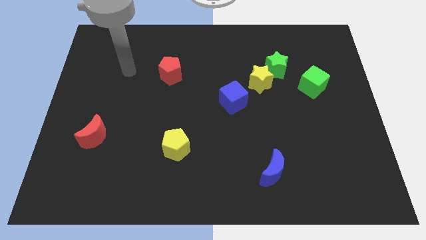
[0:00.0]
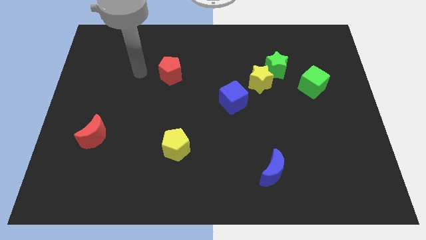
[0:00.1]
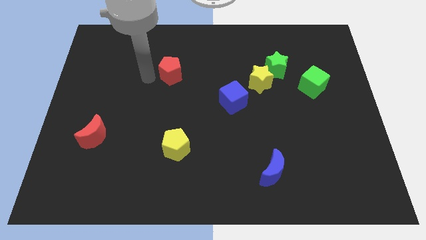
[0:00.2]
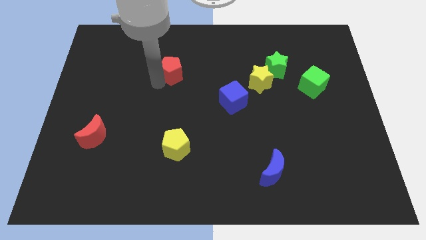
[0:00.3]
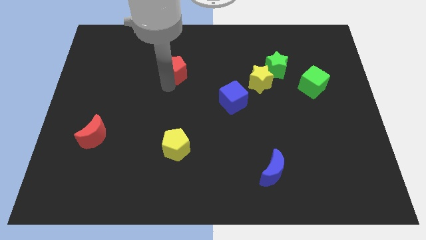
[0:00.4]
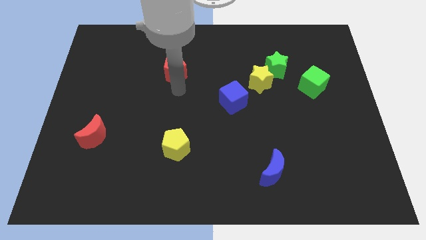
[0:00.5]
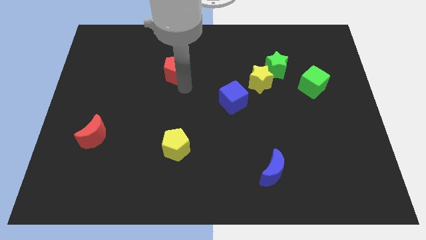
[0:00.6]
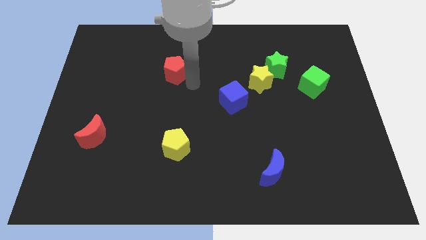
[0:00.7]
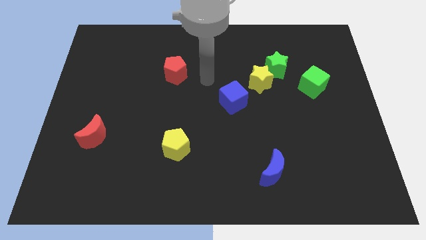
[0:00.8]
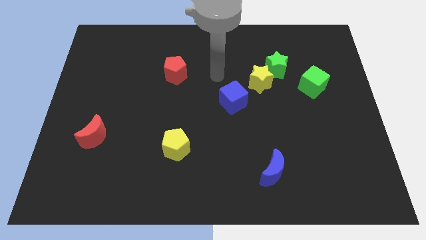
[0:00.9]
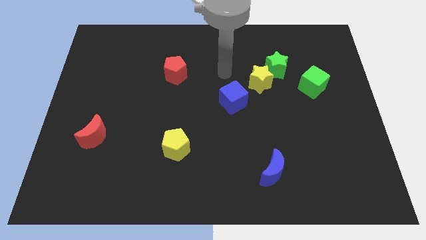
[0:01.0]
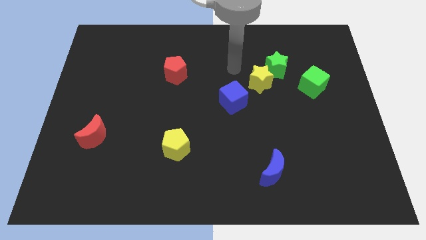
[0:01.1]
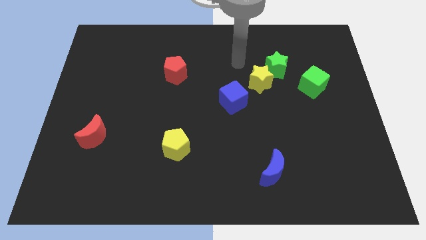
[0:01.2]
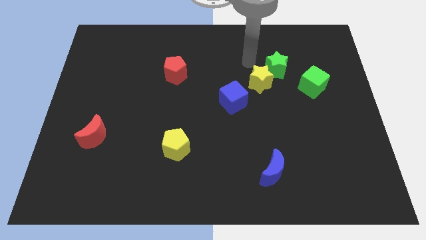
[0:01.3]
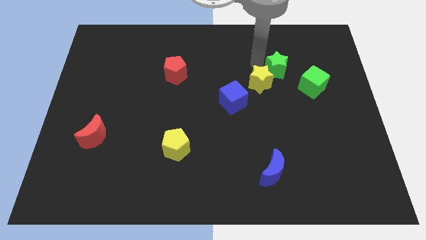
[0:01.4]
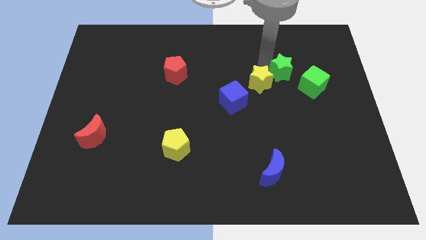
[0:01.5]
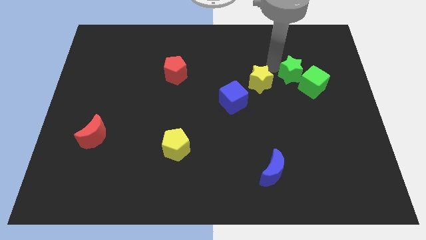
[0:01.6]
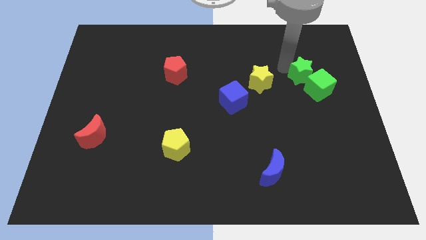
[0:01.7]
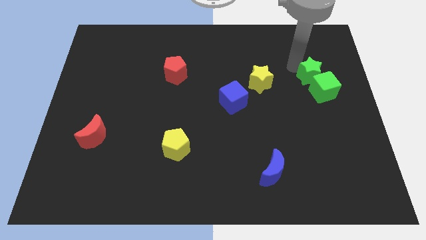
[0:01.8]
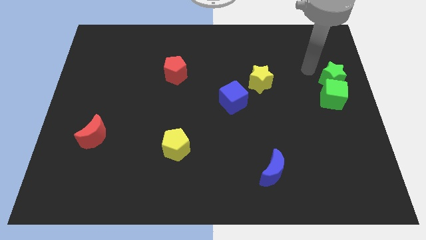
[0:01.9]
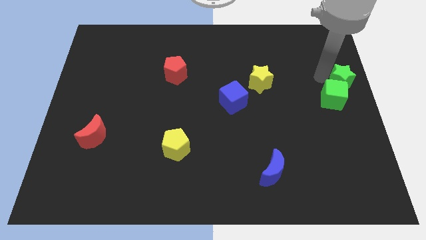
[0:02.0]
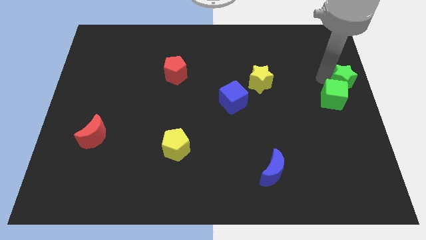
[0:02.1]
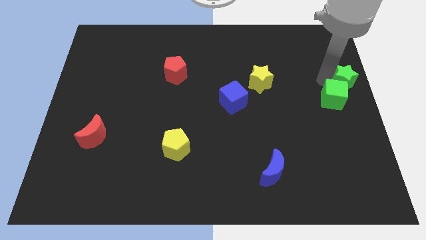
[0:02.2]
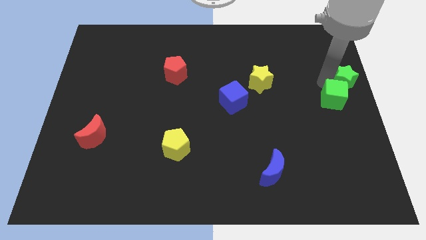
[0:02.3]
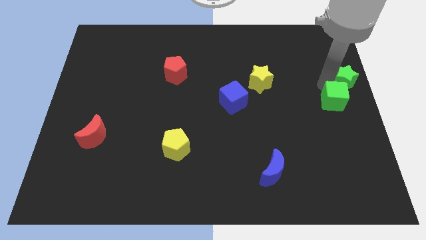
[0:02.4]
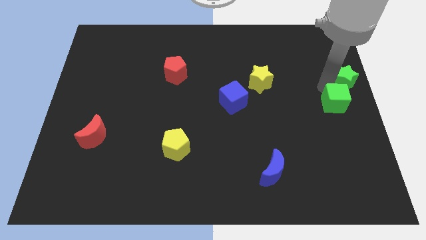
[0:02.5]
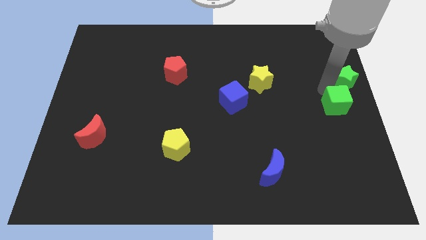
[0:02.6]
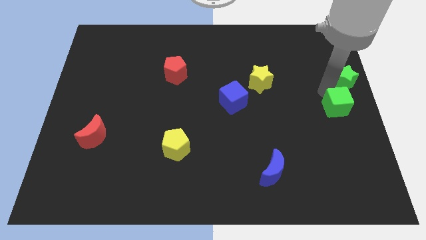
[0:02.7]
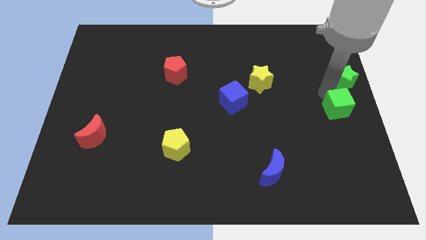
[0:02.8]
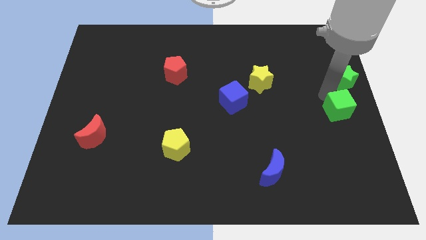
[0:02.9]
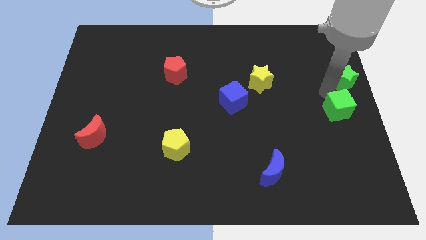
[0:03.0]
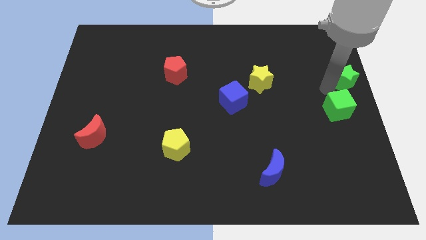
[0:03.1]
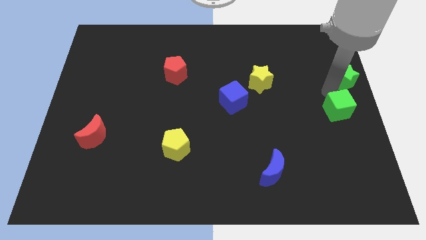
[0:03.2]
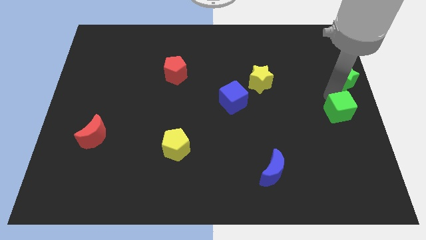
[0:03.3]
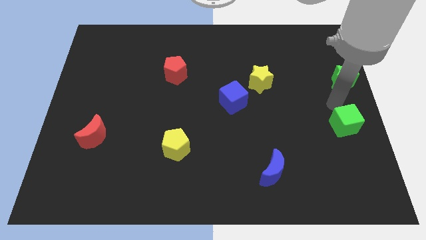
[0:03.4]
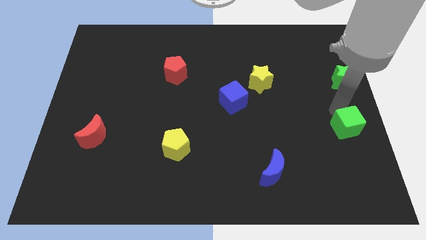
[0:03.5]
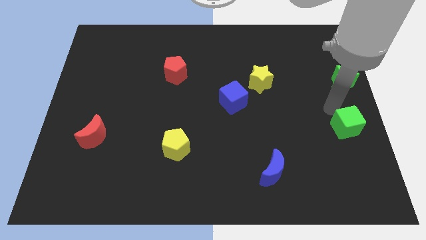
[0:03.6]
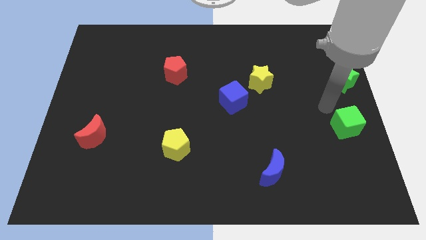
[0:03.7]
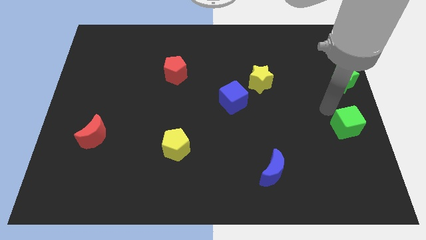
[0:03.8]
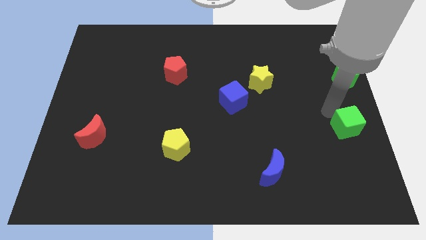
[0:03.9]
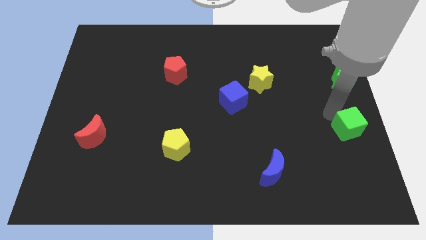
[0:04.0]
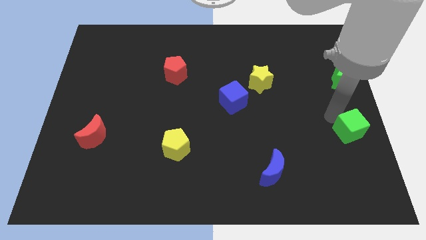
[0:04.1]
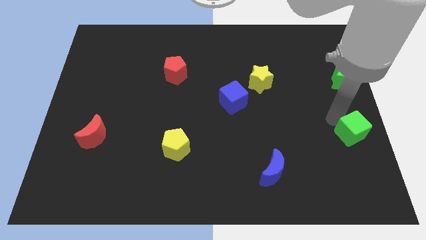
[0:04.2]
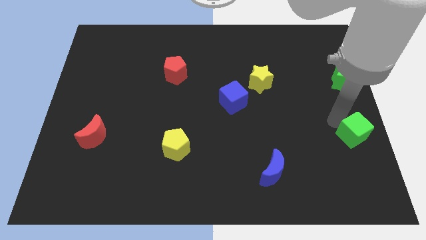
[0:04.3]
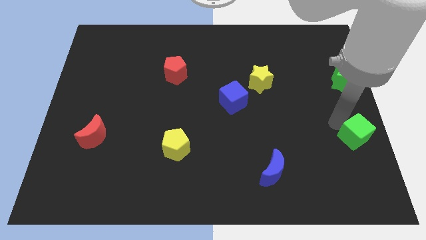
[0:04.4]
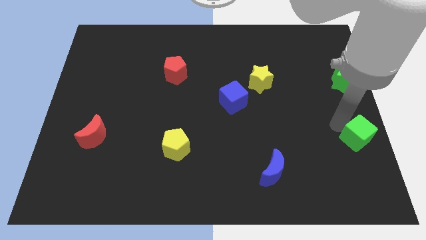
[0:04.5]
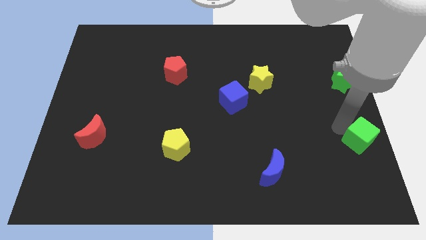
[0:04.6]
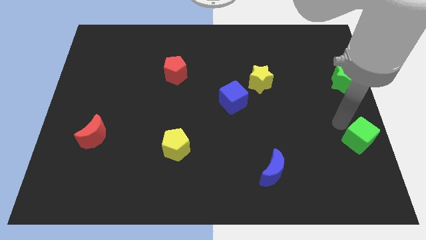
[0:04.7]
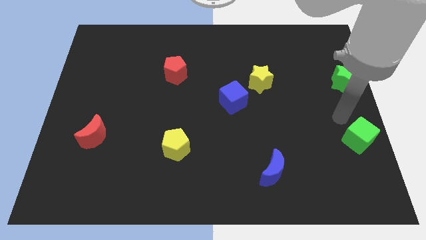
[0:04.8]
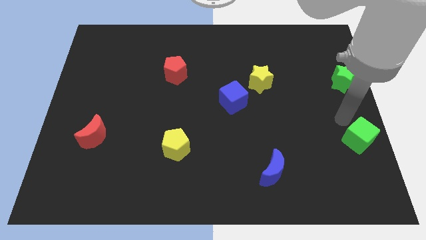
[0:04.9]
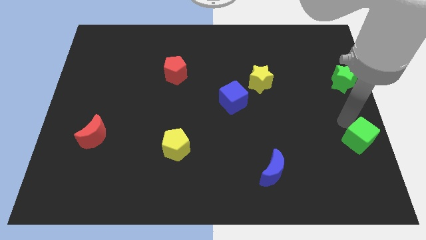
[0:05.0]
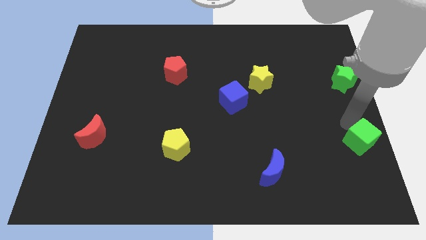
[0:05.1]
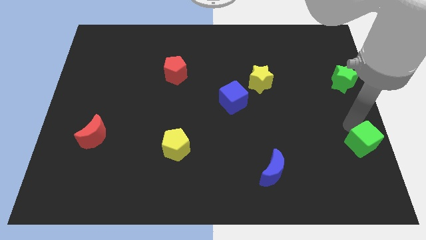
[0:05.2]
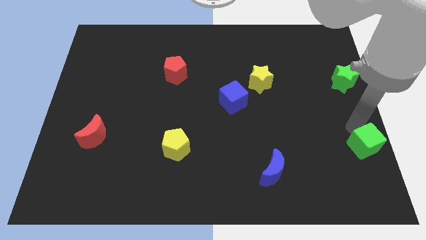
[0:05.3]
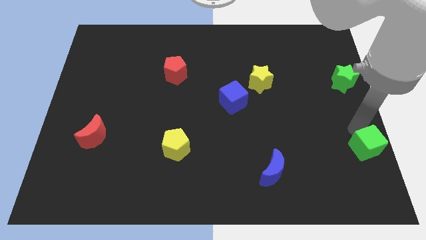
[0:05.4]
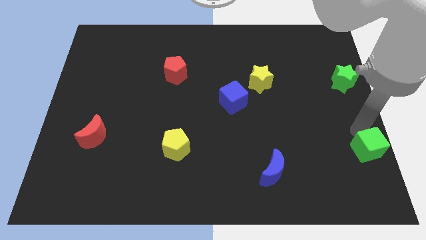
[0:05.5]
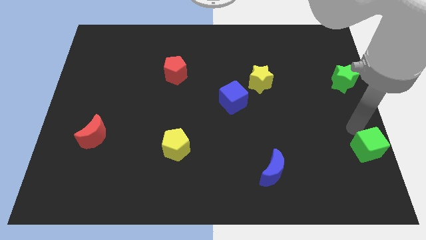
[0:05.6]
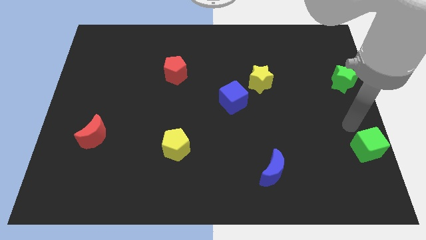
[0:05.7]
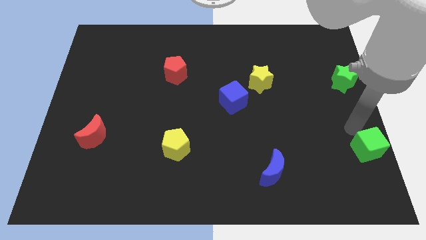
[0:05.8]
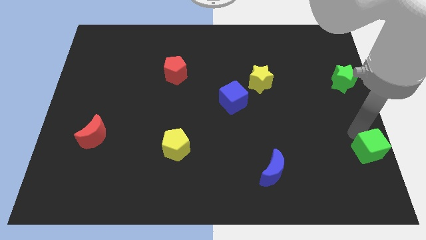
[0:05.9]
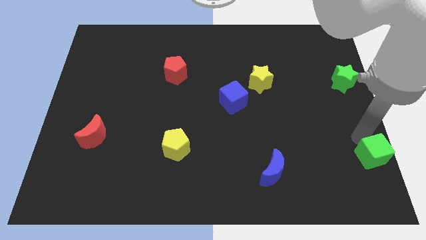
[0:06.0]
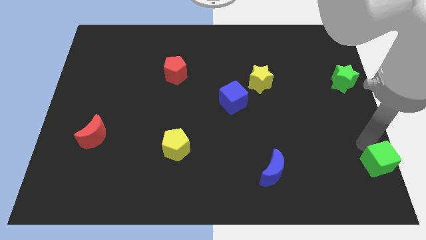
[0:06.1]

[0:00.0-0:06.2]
slide the green cube to the bottom right

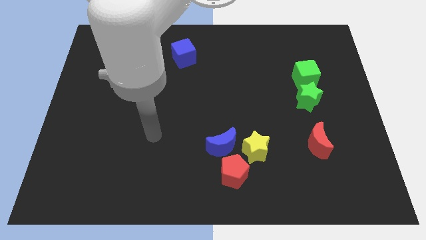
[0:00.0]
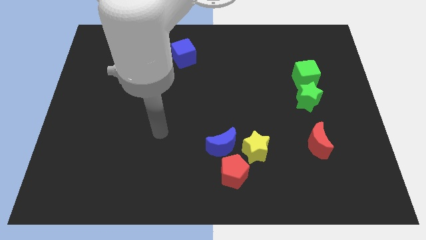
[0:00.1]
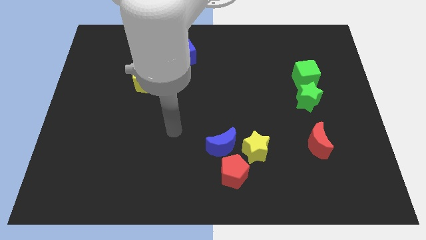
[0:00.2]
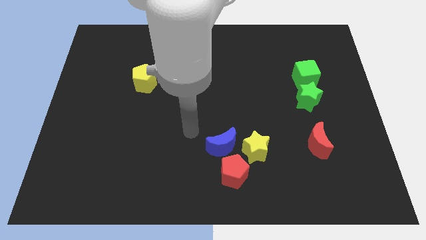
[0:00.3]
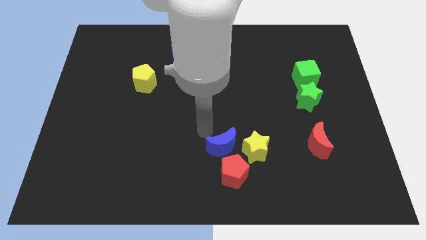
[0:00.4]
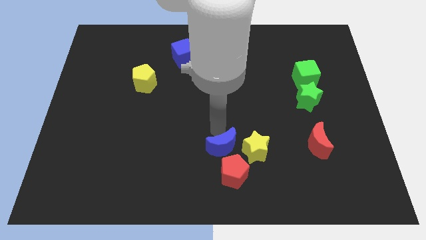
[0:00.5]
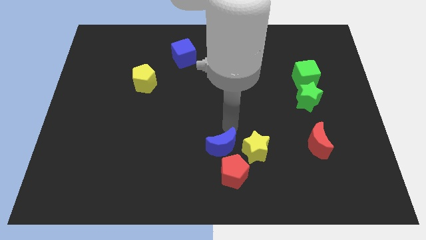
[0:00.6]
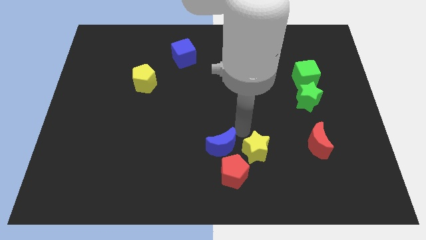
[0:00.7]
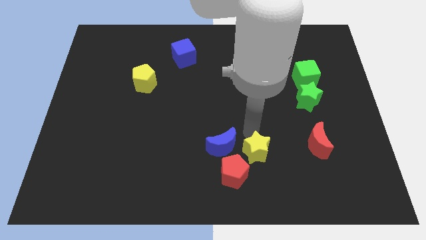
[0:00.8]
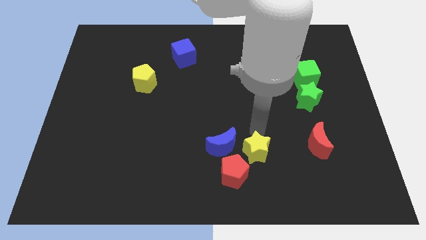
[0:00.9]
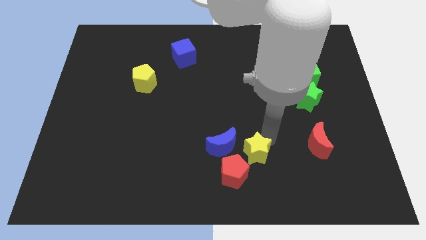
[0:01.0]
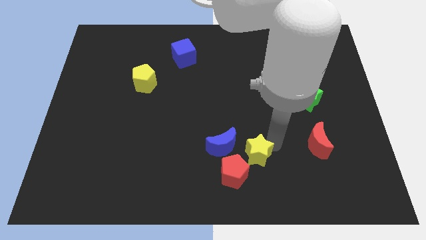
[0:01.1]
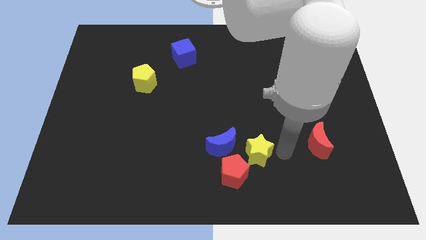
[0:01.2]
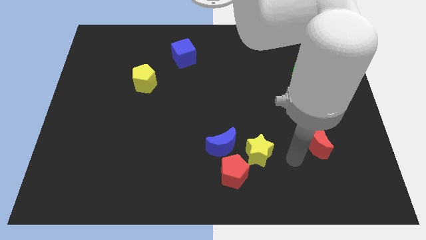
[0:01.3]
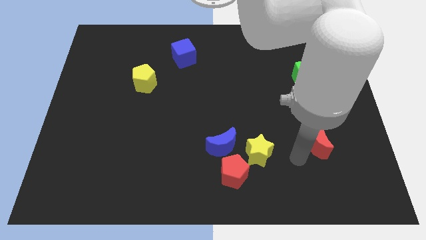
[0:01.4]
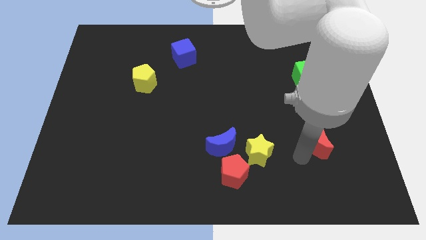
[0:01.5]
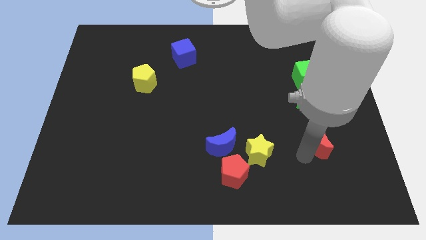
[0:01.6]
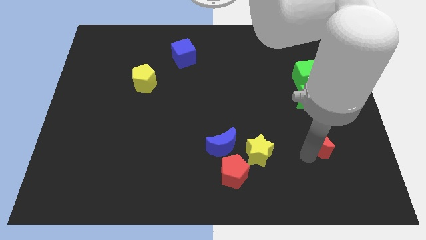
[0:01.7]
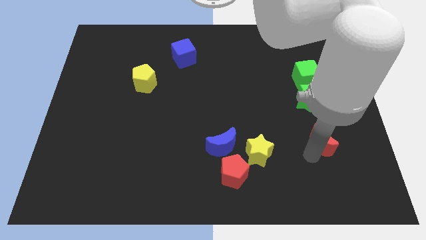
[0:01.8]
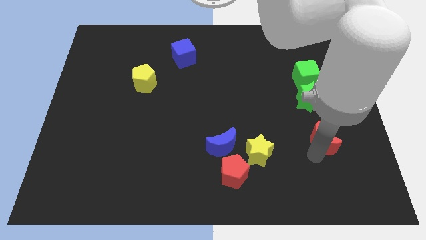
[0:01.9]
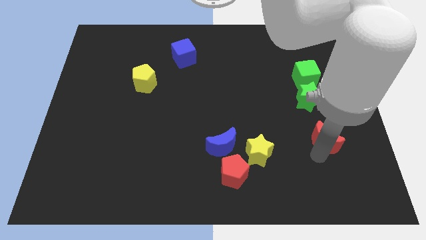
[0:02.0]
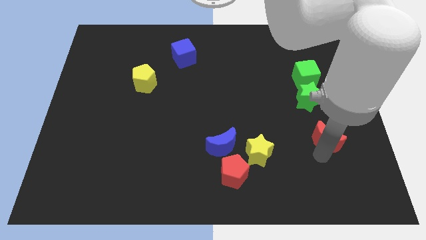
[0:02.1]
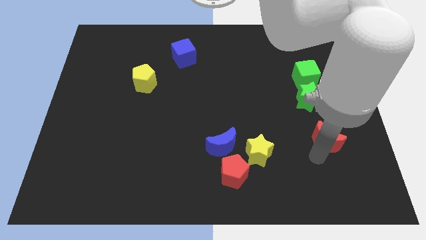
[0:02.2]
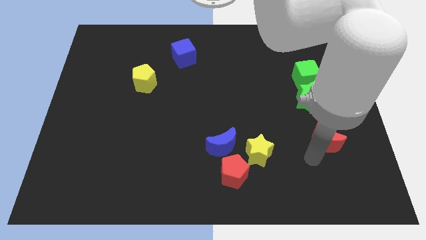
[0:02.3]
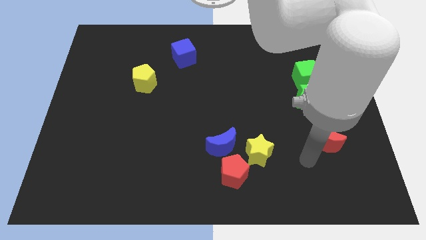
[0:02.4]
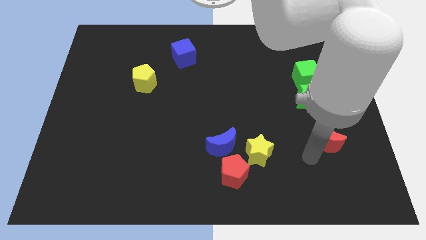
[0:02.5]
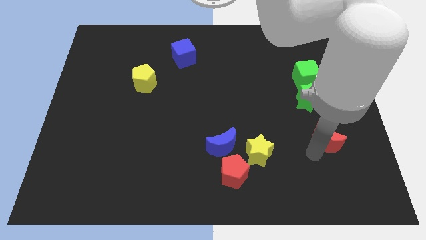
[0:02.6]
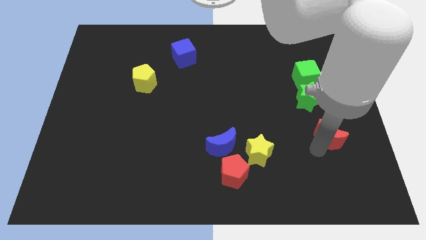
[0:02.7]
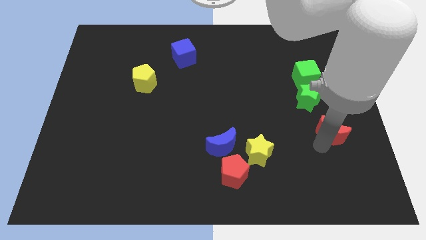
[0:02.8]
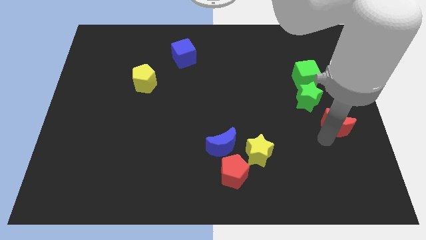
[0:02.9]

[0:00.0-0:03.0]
put the red moon to the right side of the board
